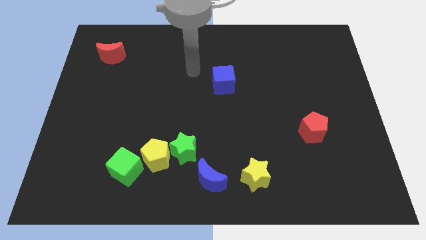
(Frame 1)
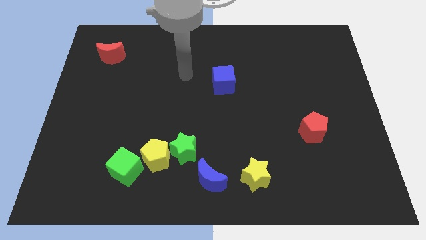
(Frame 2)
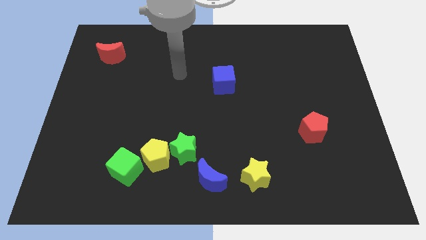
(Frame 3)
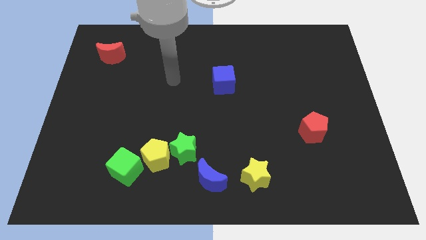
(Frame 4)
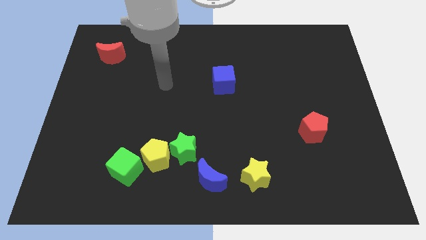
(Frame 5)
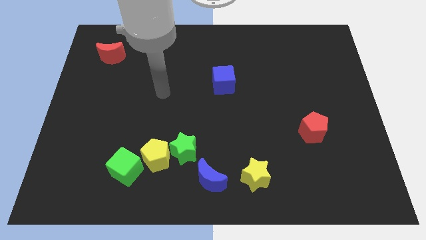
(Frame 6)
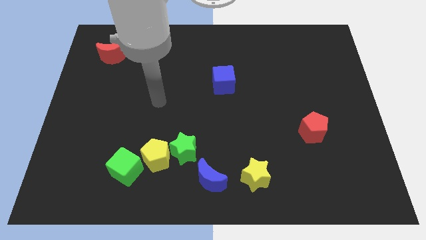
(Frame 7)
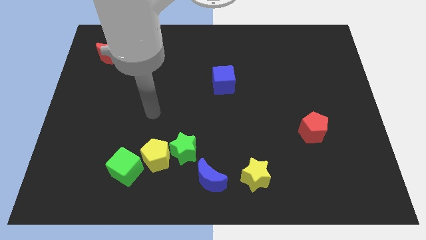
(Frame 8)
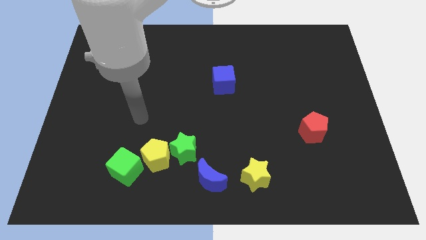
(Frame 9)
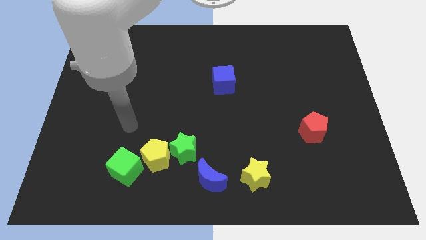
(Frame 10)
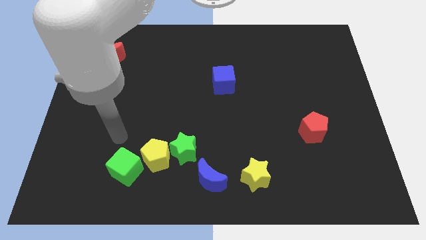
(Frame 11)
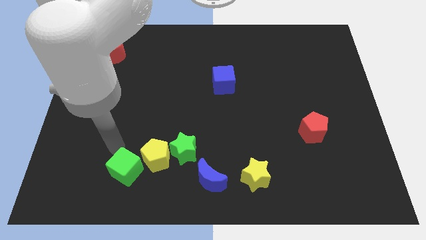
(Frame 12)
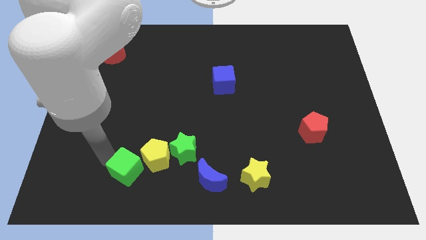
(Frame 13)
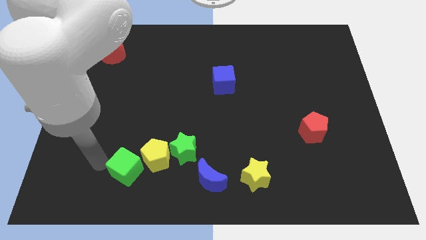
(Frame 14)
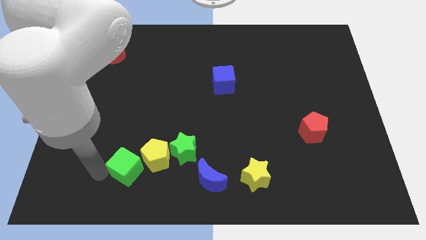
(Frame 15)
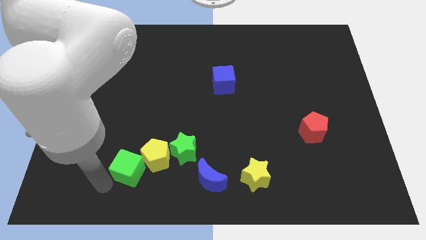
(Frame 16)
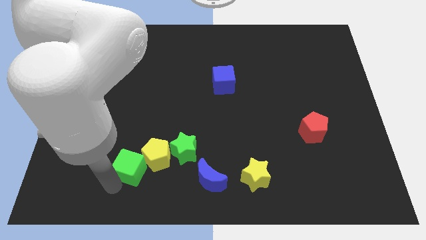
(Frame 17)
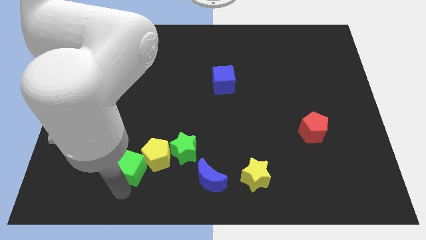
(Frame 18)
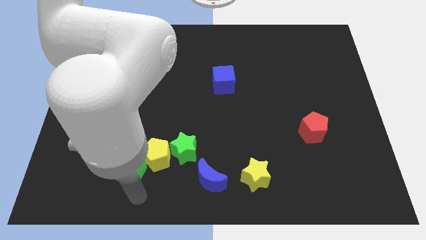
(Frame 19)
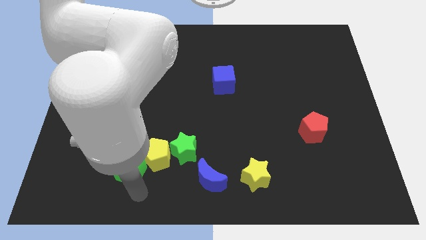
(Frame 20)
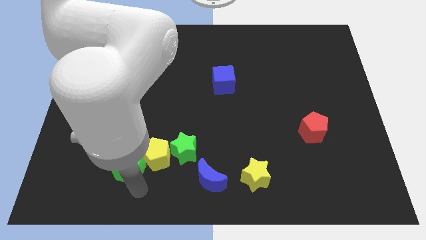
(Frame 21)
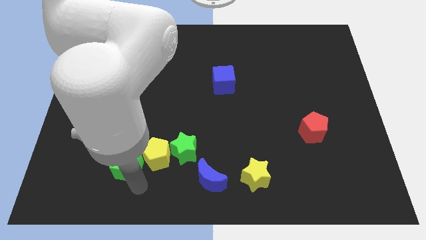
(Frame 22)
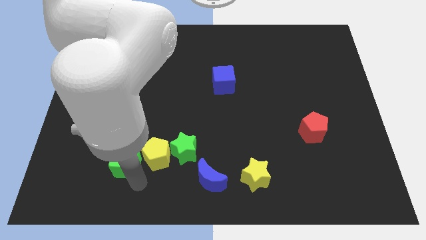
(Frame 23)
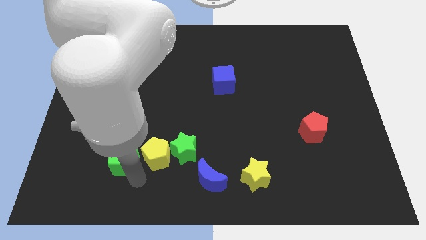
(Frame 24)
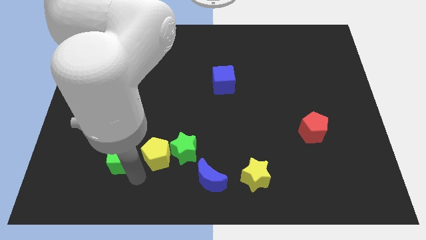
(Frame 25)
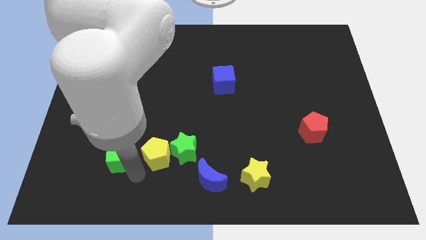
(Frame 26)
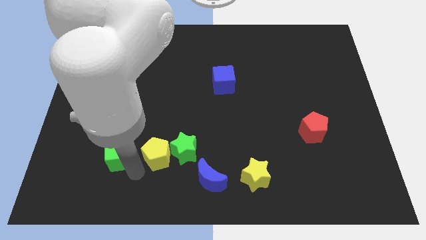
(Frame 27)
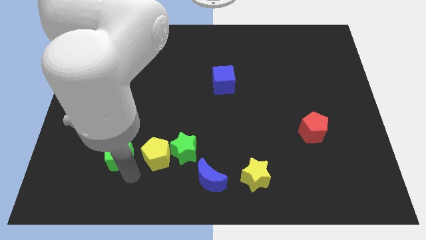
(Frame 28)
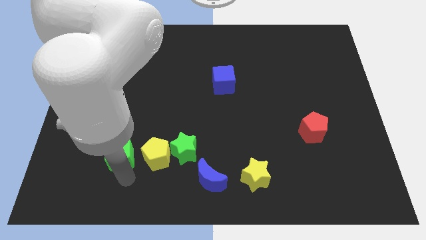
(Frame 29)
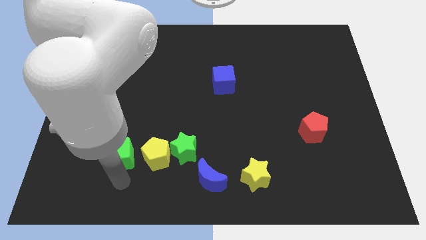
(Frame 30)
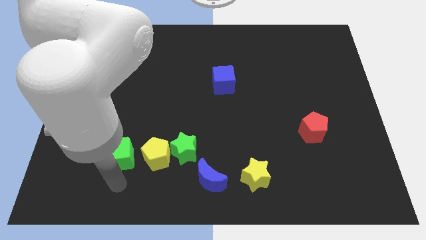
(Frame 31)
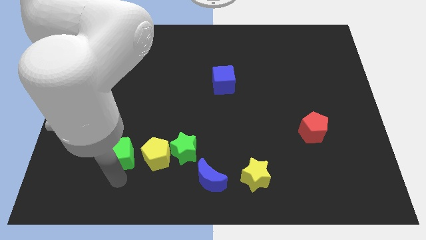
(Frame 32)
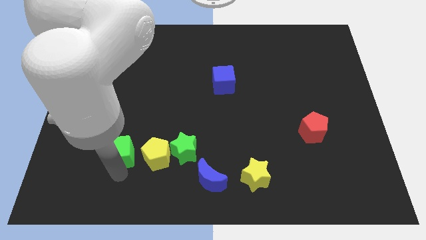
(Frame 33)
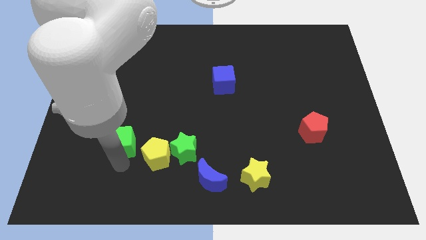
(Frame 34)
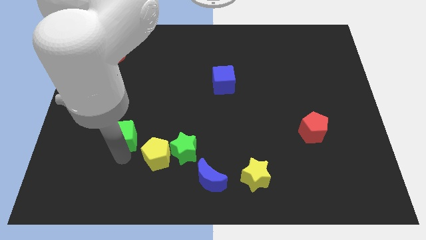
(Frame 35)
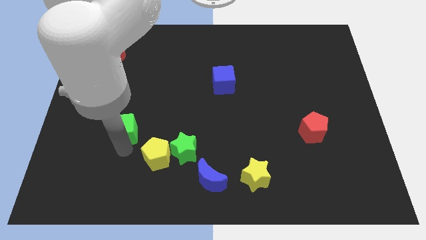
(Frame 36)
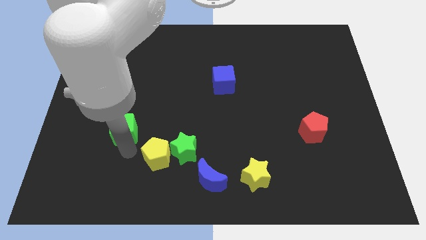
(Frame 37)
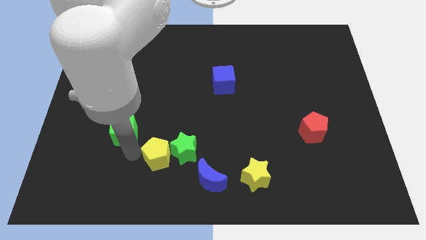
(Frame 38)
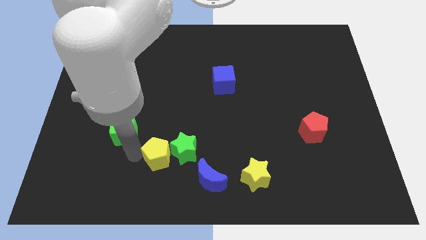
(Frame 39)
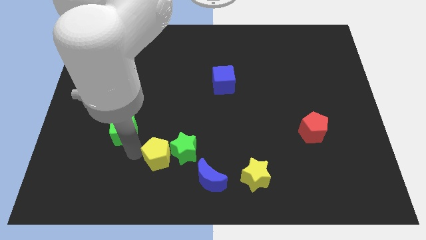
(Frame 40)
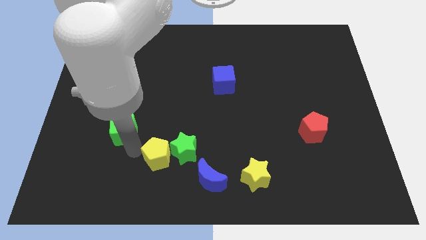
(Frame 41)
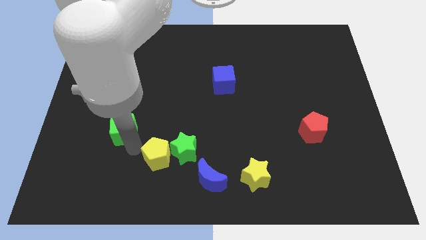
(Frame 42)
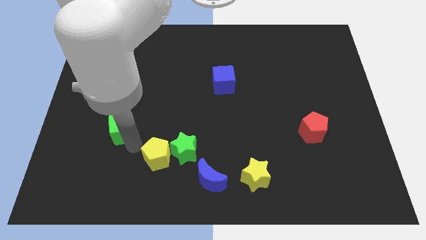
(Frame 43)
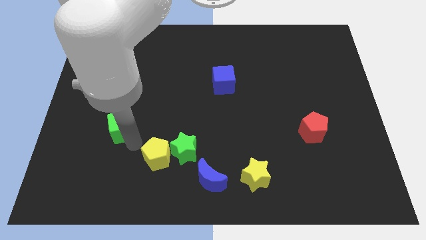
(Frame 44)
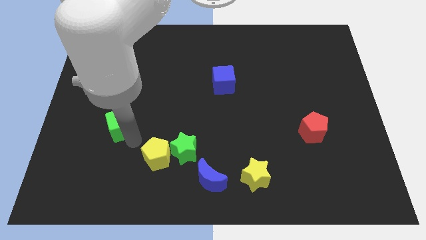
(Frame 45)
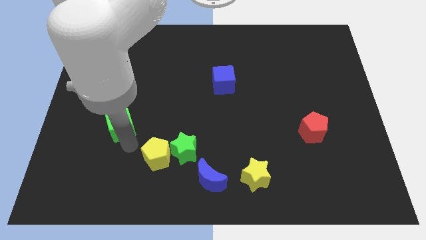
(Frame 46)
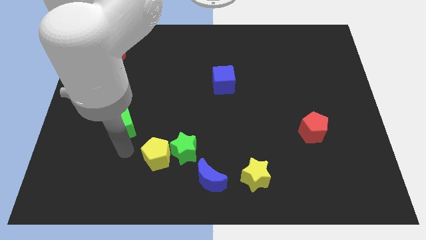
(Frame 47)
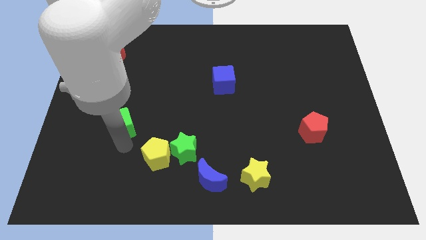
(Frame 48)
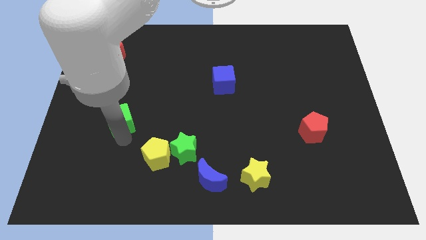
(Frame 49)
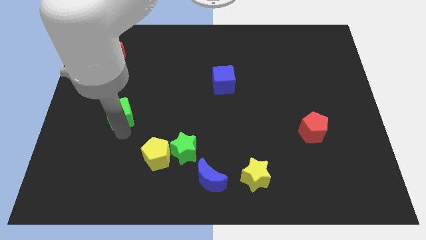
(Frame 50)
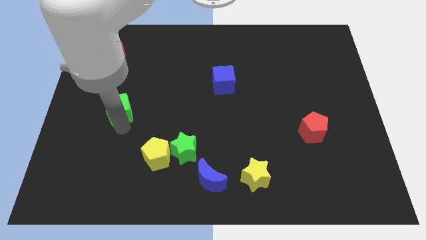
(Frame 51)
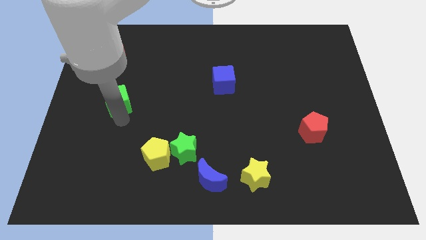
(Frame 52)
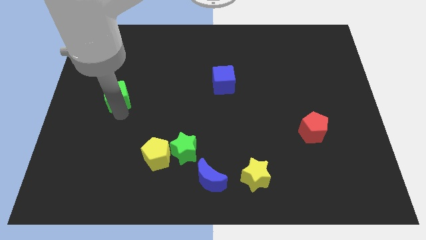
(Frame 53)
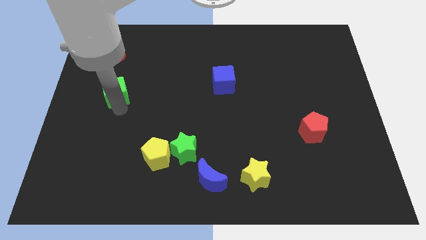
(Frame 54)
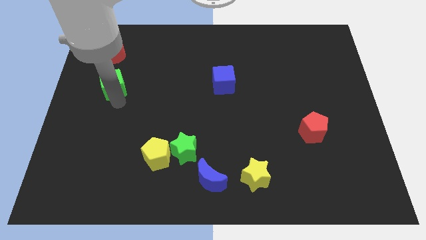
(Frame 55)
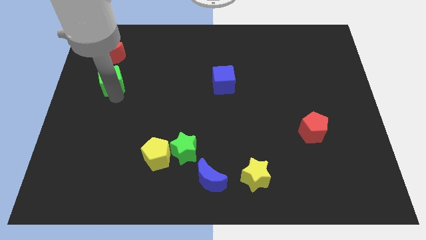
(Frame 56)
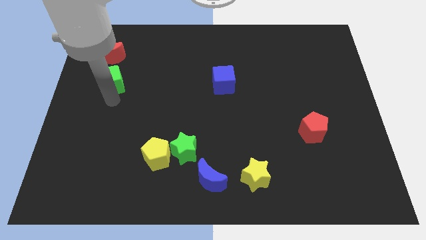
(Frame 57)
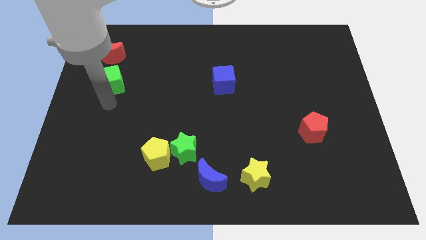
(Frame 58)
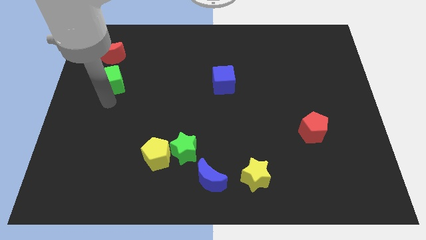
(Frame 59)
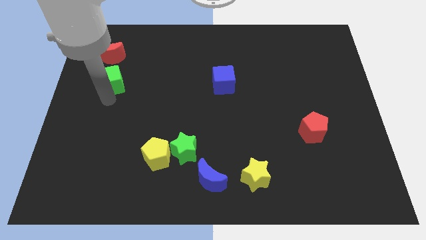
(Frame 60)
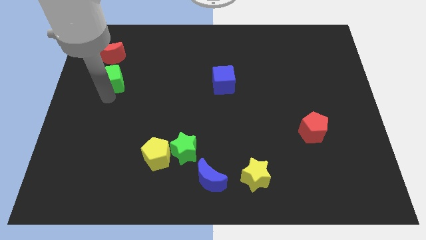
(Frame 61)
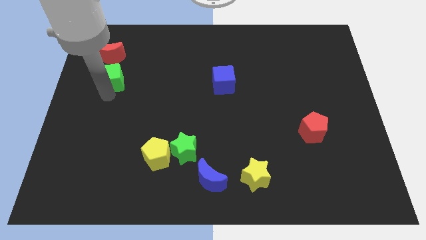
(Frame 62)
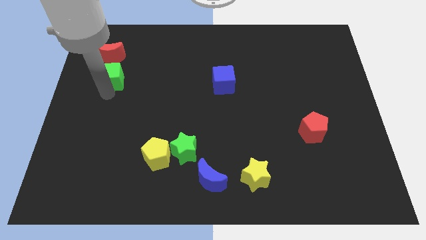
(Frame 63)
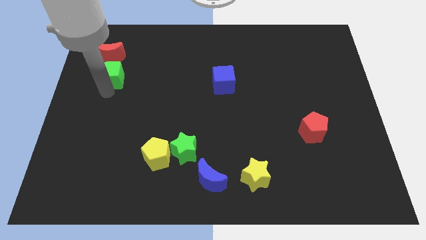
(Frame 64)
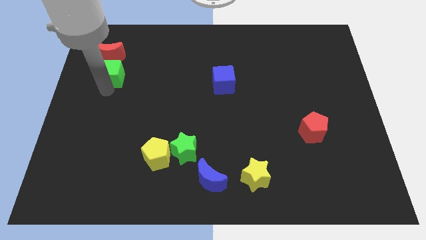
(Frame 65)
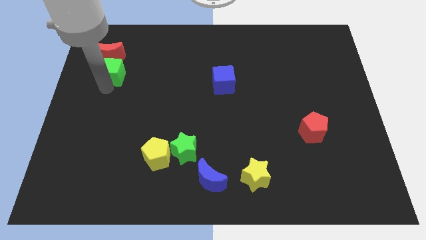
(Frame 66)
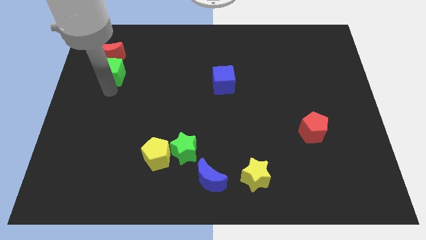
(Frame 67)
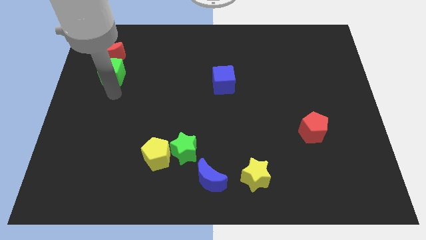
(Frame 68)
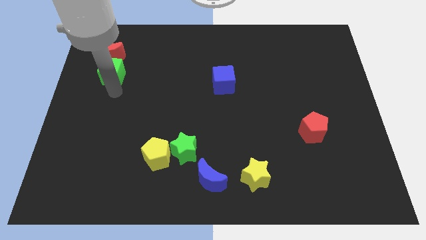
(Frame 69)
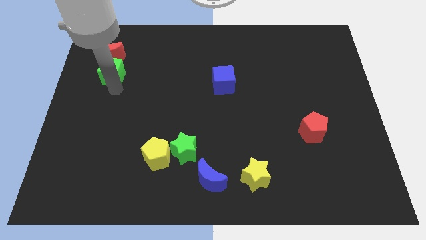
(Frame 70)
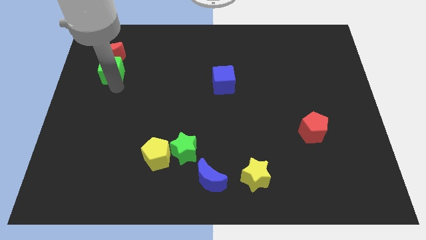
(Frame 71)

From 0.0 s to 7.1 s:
put the green cube towards the red moon
